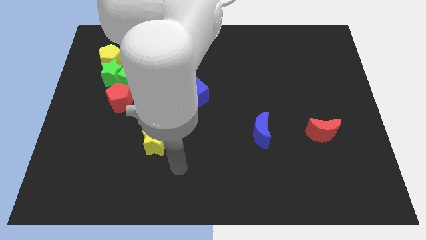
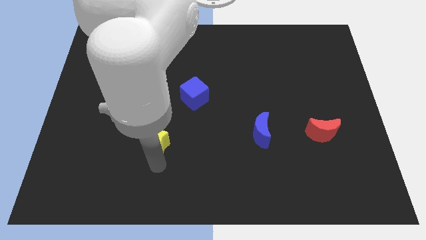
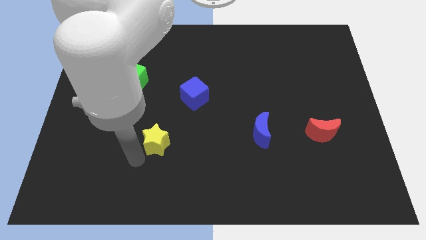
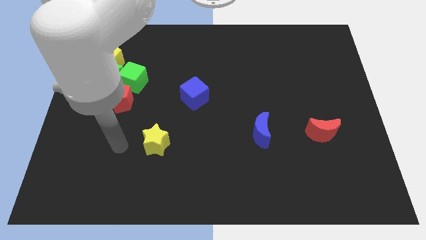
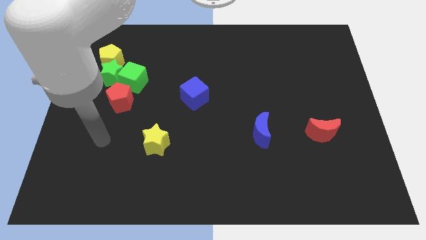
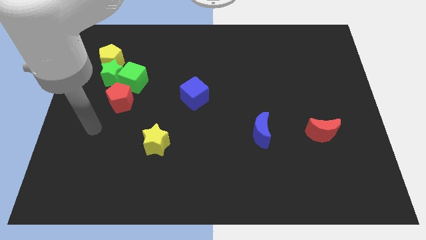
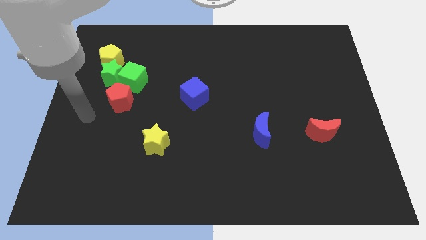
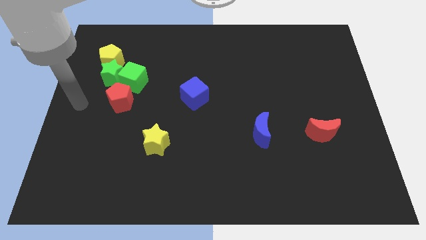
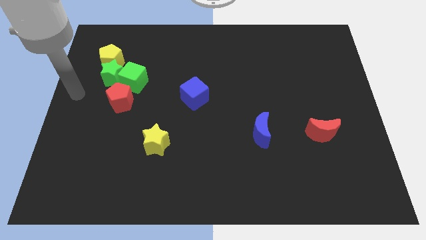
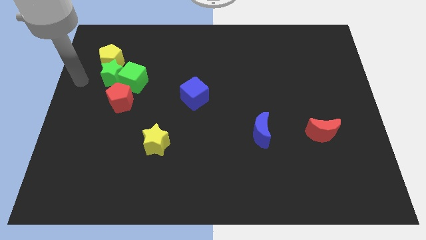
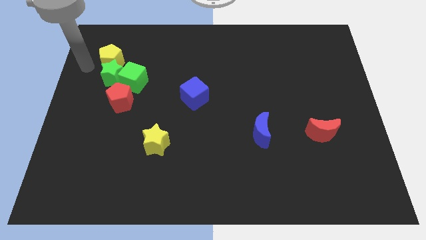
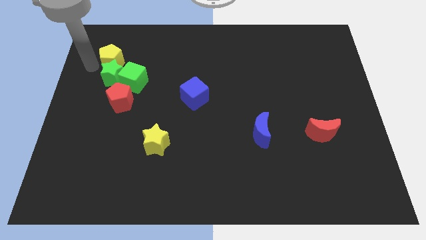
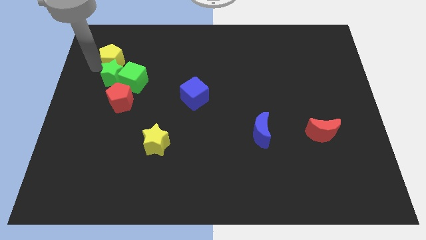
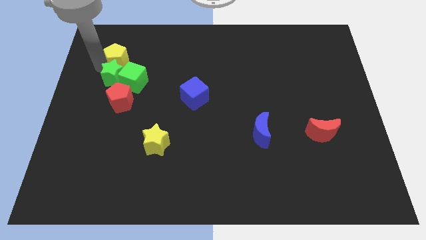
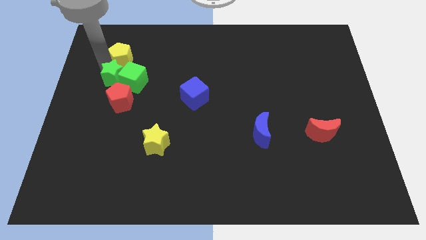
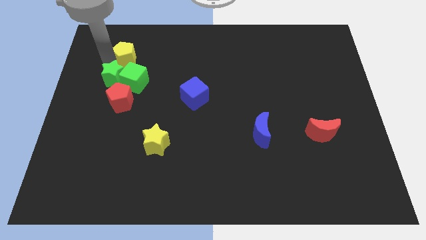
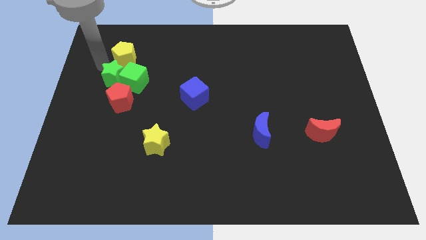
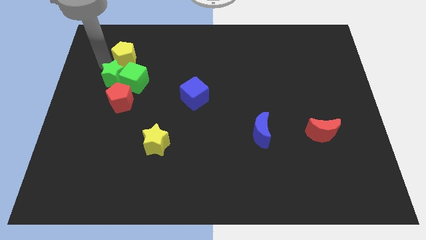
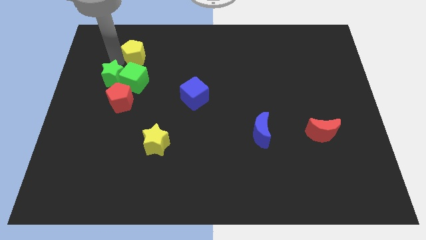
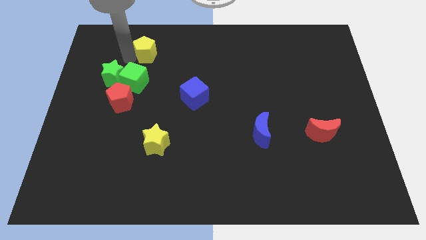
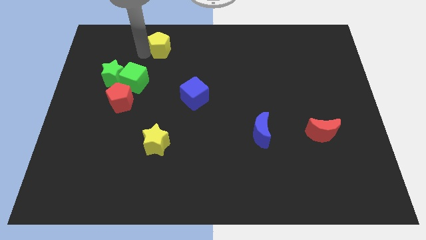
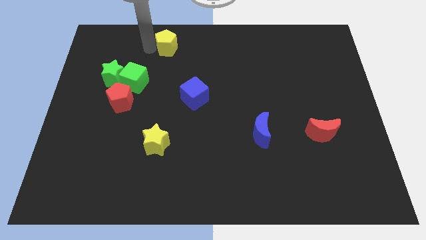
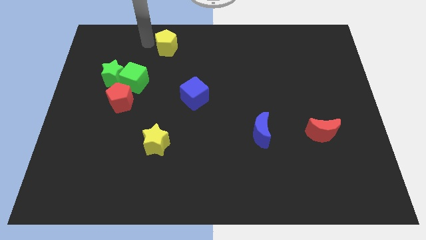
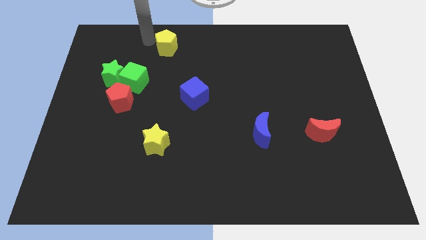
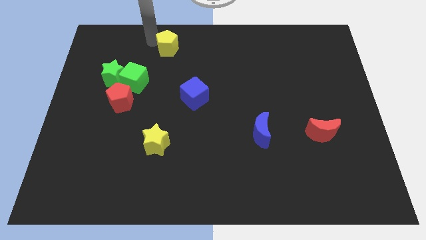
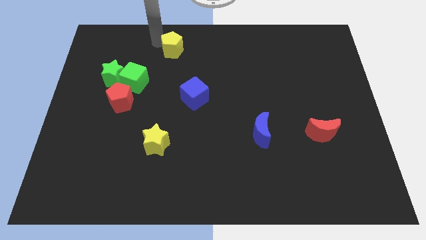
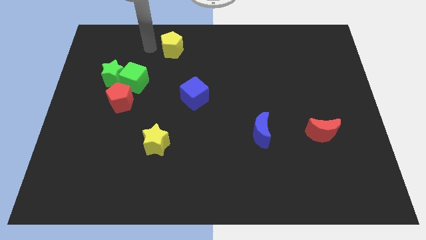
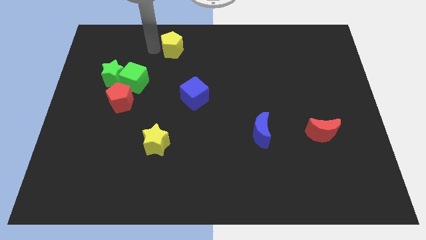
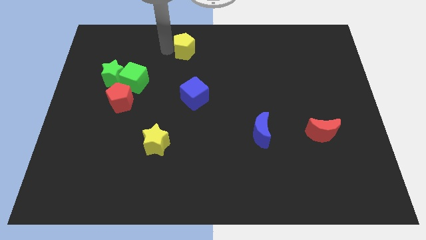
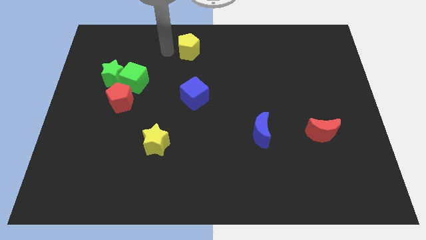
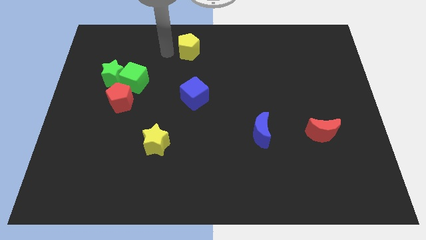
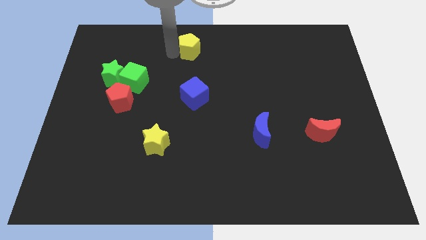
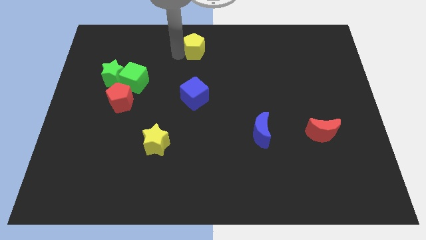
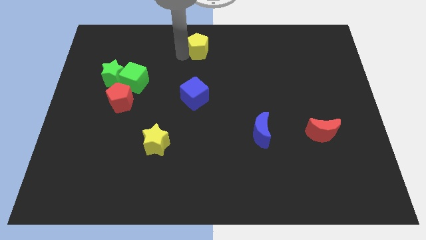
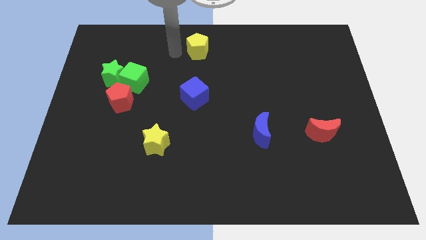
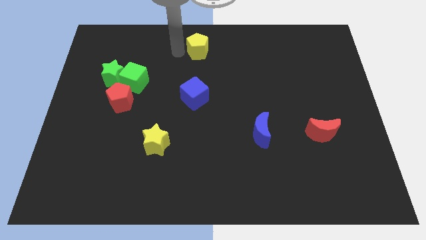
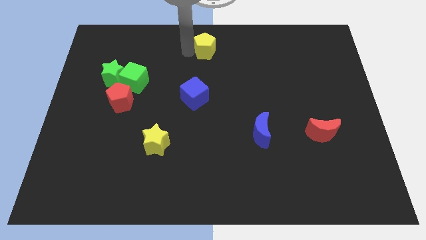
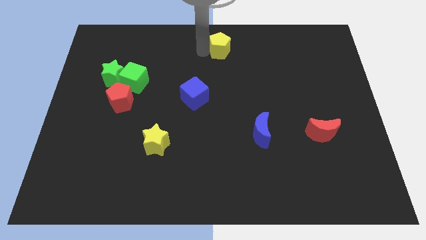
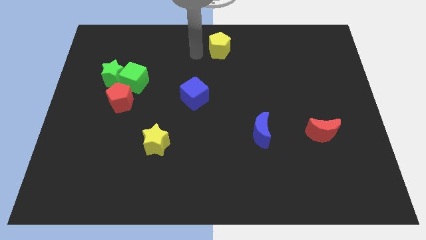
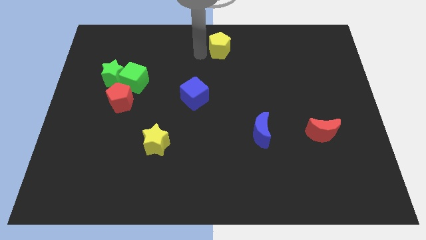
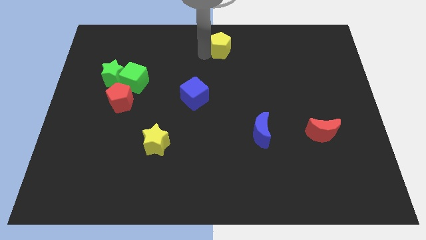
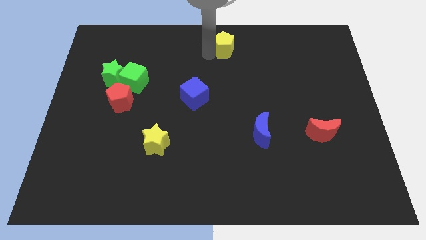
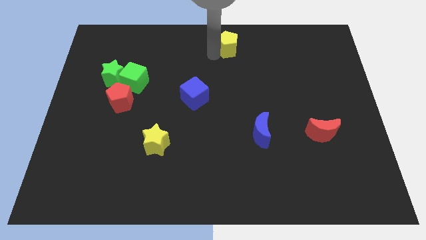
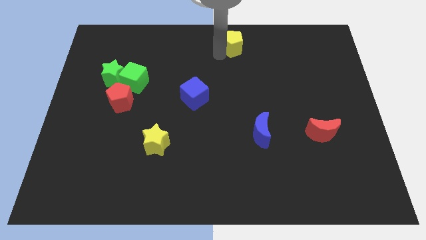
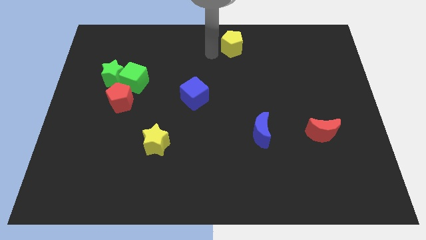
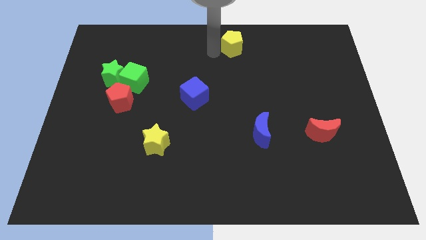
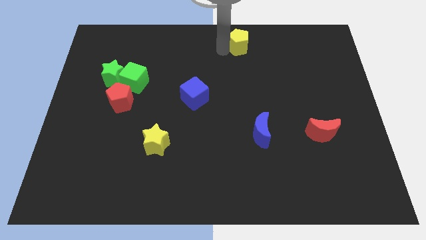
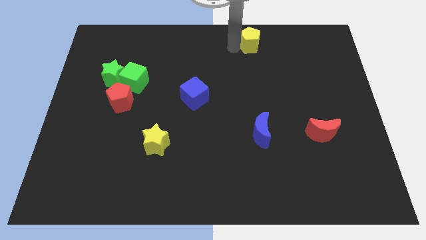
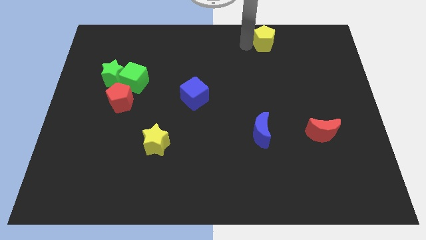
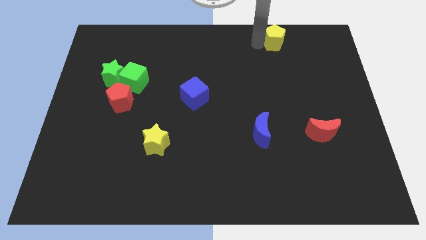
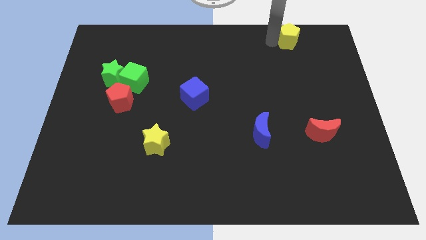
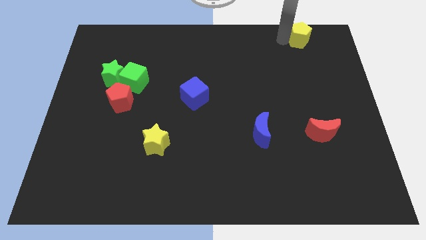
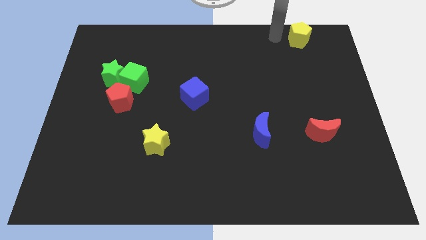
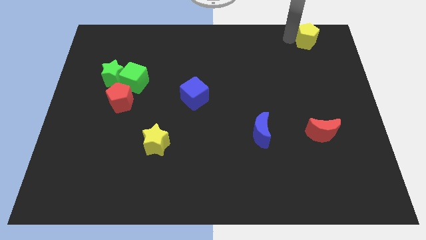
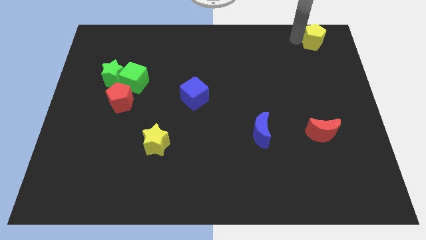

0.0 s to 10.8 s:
put the yellow pentagon to the top right corner
